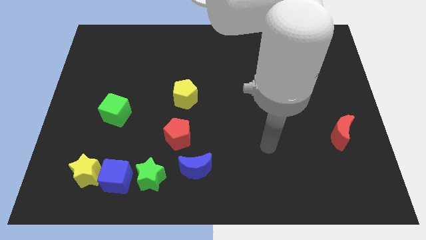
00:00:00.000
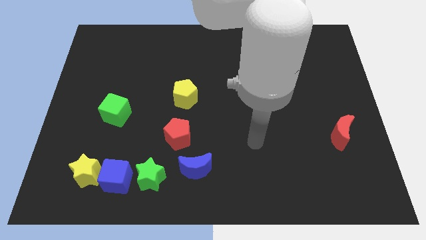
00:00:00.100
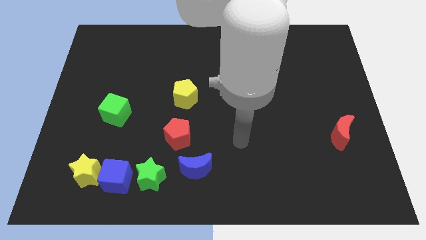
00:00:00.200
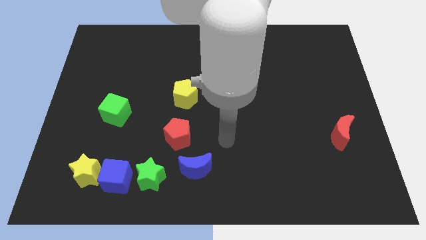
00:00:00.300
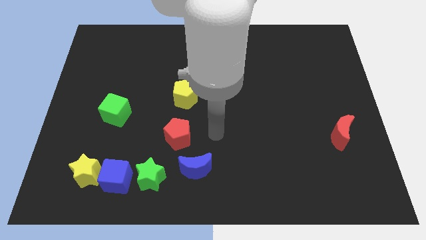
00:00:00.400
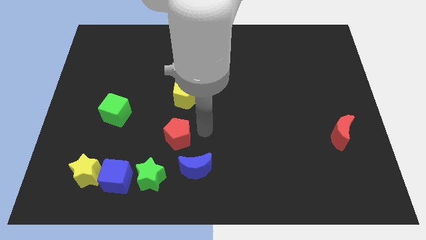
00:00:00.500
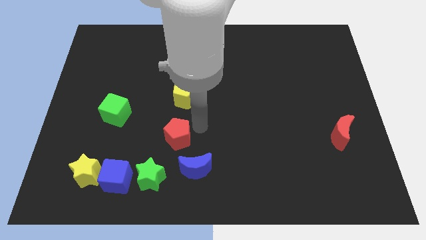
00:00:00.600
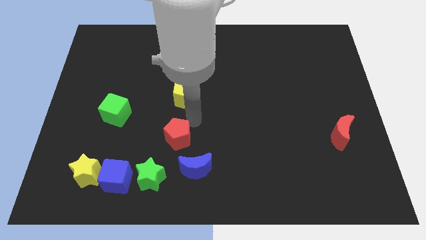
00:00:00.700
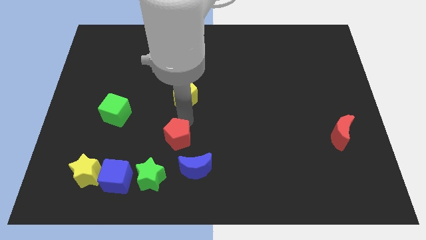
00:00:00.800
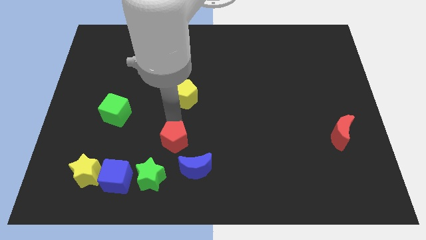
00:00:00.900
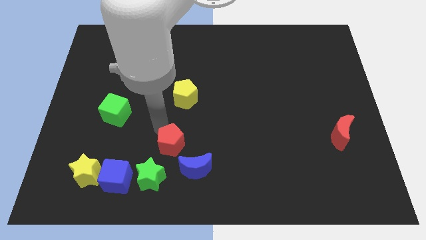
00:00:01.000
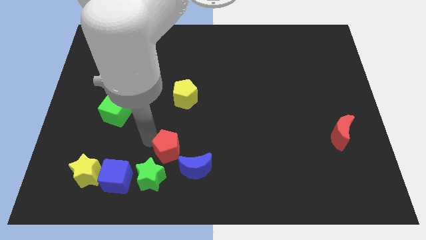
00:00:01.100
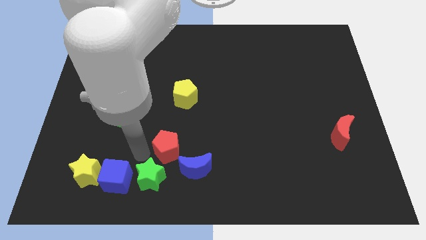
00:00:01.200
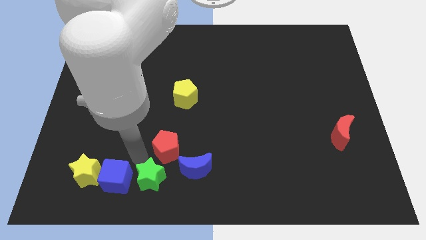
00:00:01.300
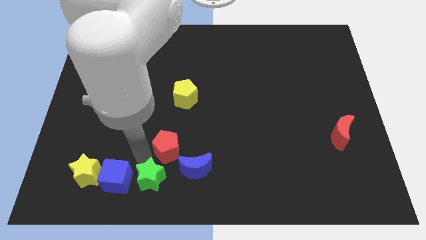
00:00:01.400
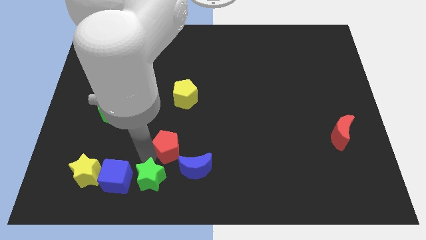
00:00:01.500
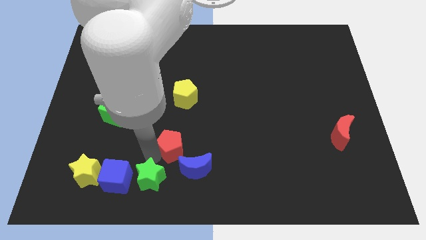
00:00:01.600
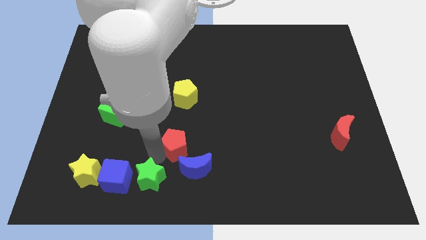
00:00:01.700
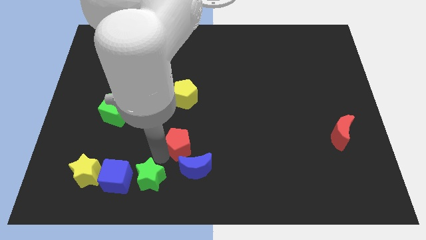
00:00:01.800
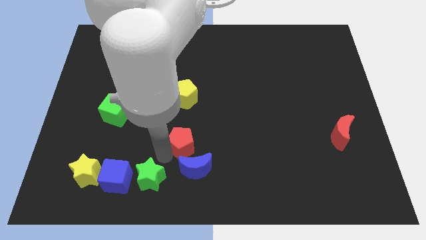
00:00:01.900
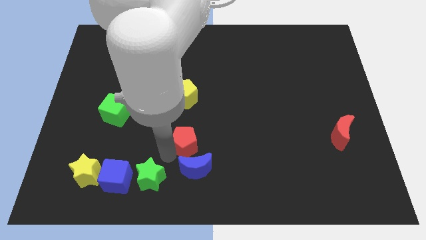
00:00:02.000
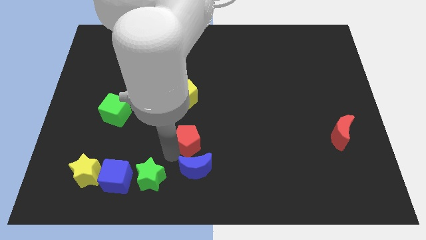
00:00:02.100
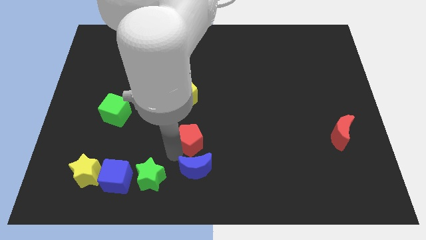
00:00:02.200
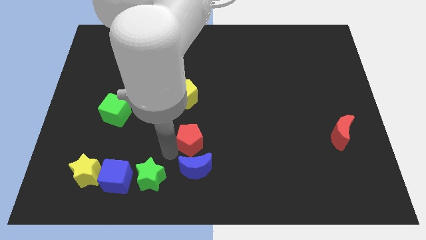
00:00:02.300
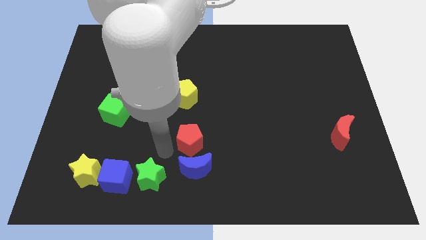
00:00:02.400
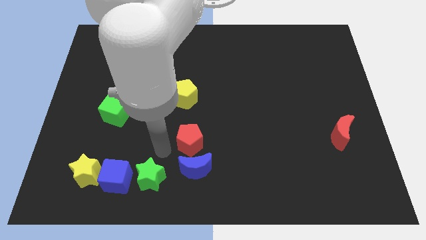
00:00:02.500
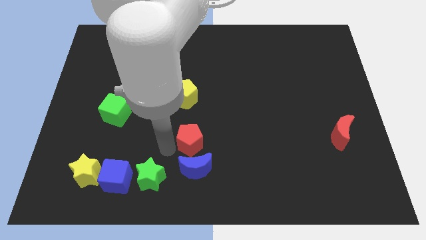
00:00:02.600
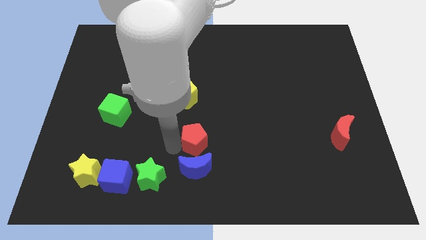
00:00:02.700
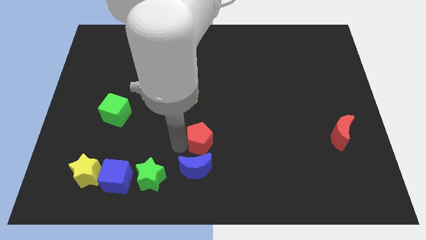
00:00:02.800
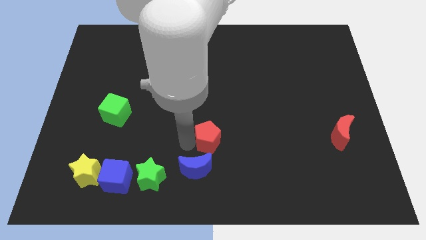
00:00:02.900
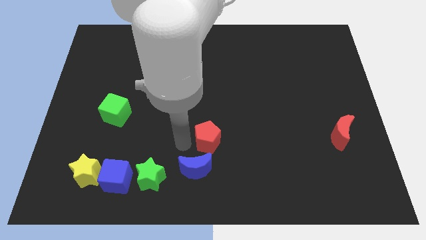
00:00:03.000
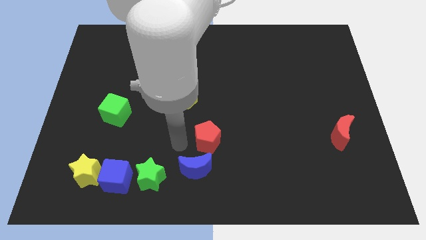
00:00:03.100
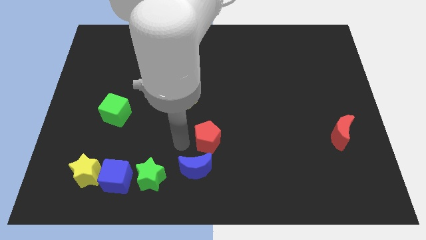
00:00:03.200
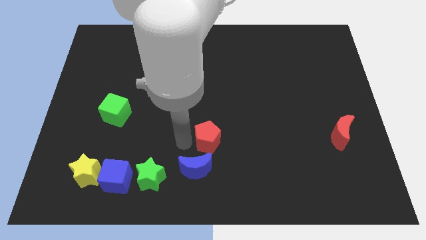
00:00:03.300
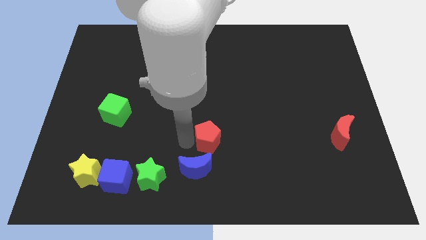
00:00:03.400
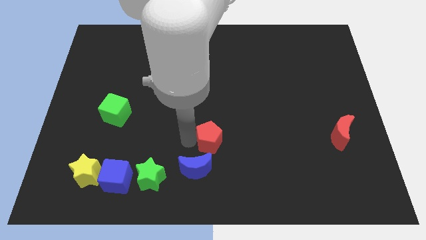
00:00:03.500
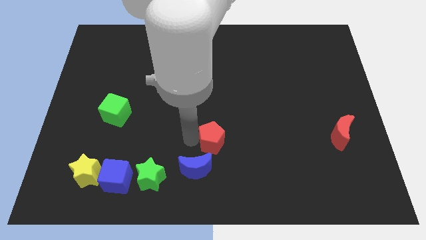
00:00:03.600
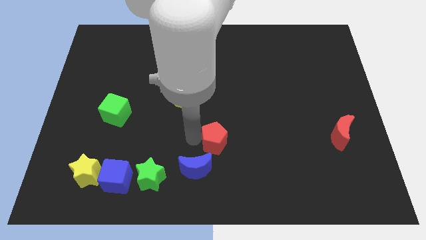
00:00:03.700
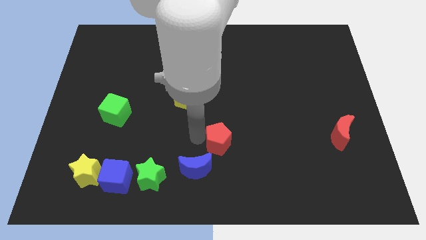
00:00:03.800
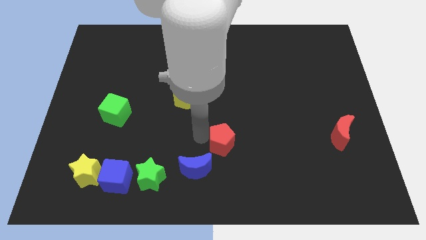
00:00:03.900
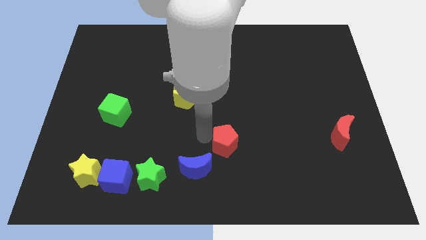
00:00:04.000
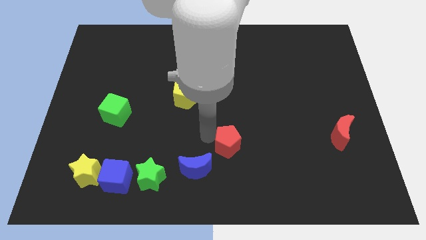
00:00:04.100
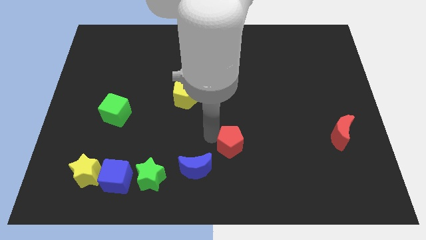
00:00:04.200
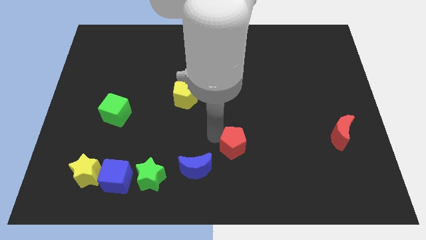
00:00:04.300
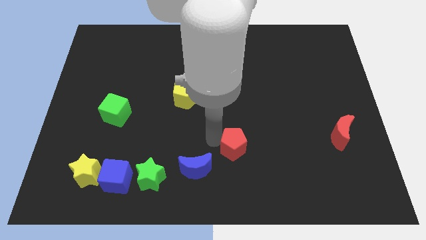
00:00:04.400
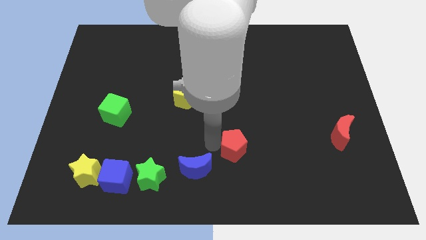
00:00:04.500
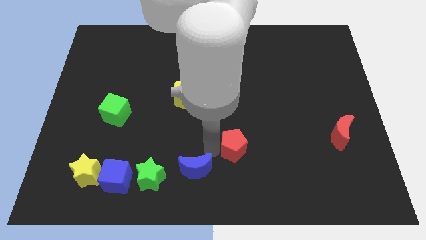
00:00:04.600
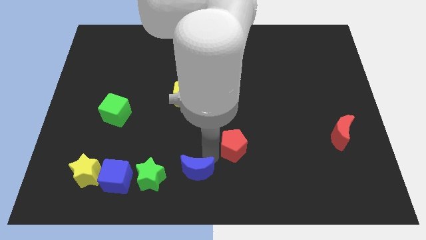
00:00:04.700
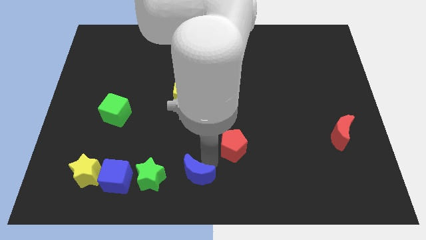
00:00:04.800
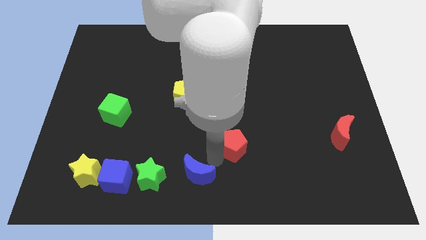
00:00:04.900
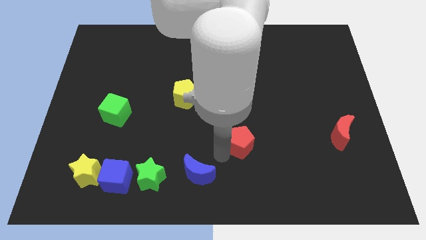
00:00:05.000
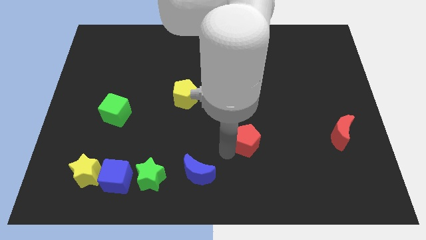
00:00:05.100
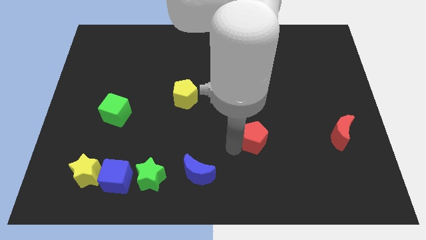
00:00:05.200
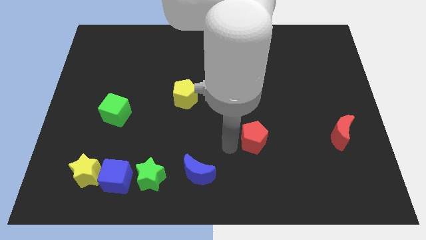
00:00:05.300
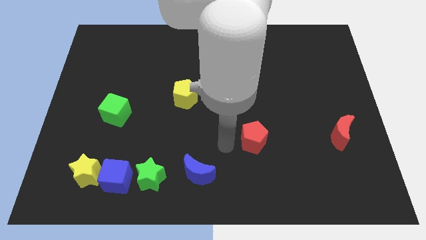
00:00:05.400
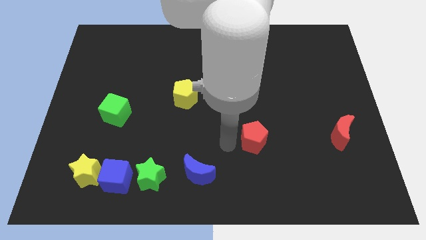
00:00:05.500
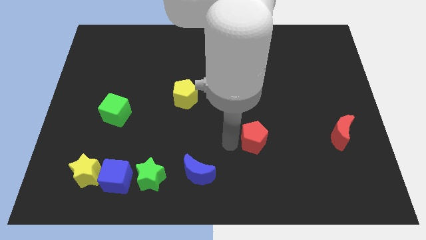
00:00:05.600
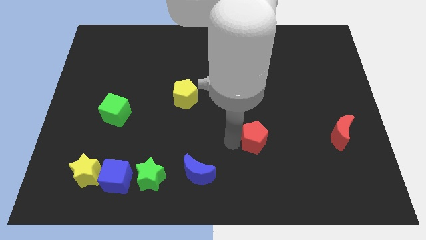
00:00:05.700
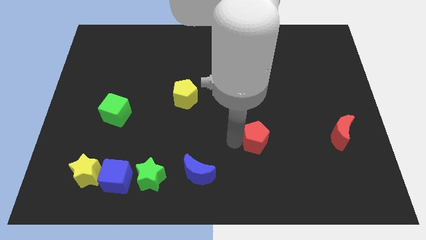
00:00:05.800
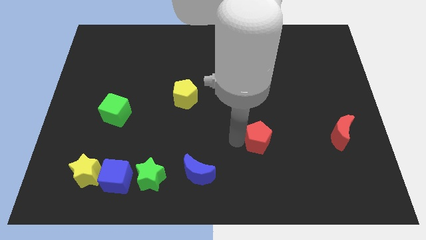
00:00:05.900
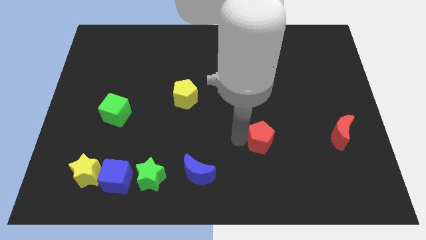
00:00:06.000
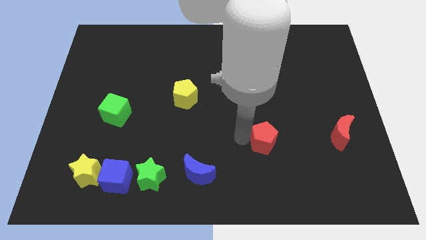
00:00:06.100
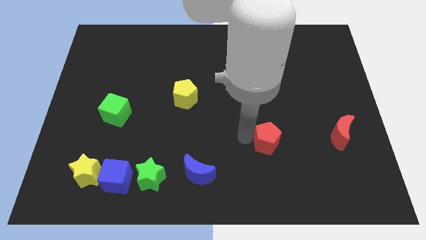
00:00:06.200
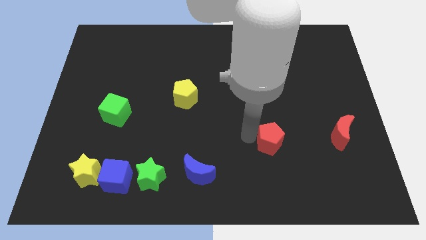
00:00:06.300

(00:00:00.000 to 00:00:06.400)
move the red pentagon to the left of the red moon
